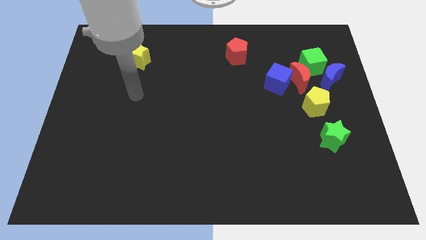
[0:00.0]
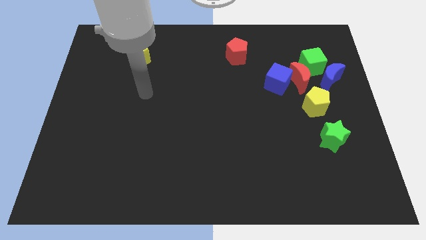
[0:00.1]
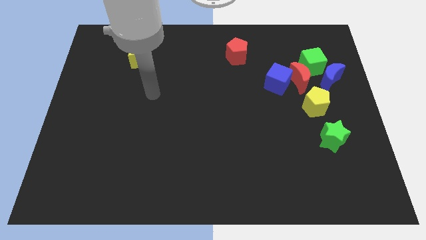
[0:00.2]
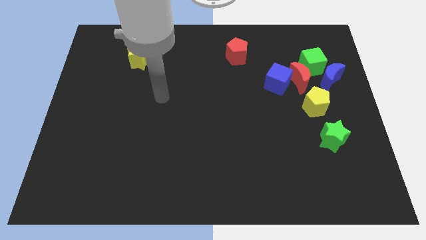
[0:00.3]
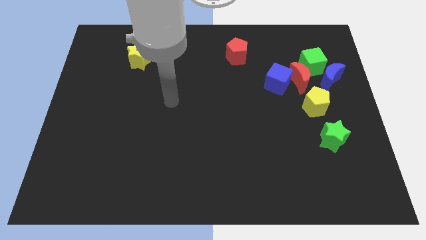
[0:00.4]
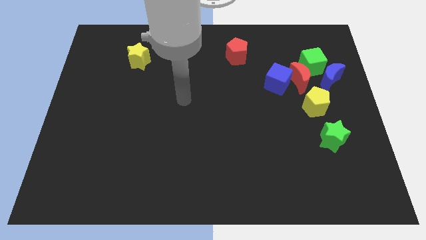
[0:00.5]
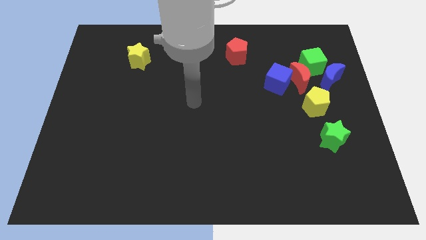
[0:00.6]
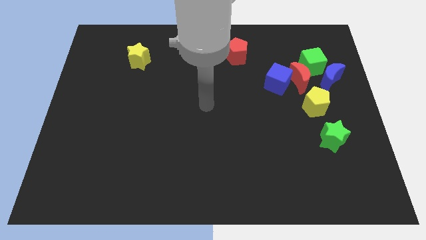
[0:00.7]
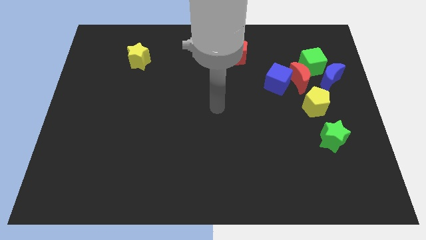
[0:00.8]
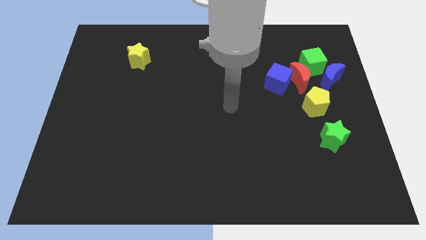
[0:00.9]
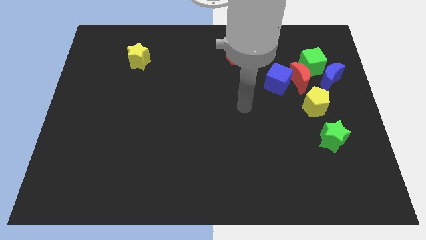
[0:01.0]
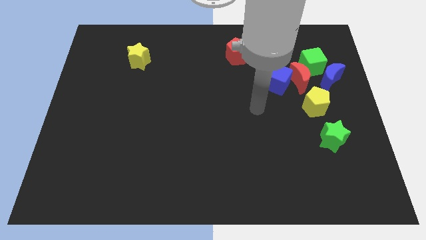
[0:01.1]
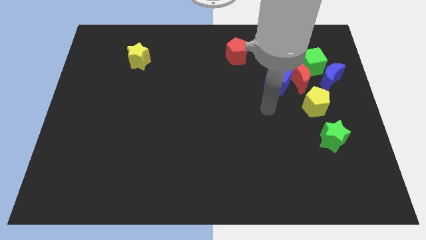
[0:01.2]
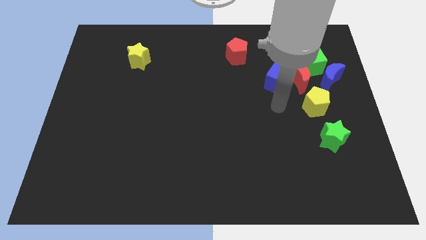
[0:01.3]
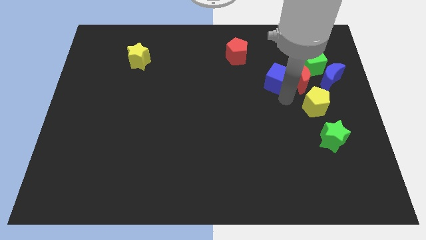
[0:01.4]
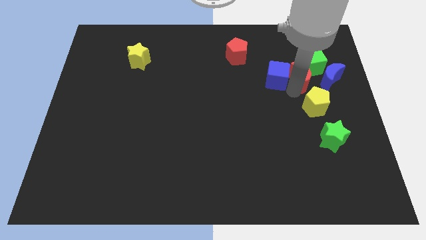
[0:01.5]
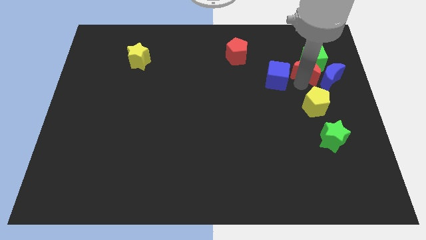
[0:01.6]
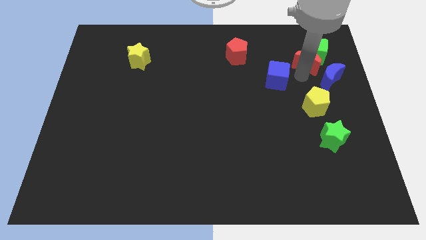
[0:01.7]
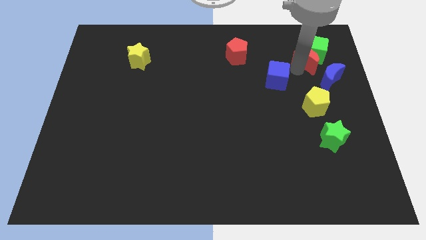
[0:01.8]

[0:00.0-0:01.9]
move the blue cube away from the red moon

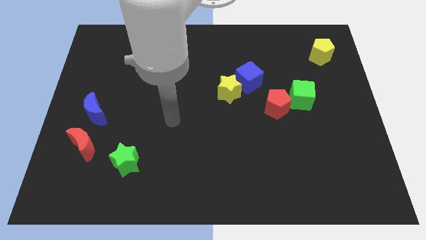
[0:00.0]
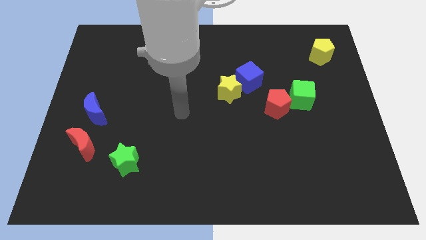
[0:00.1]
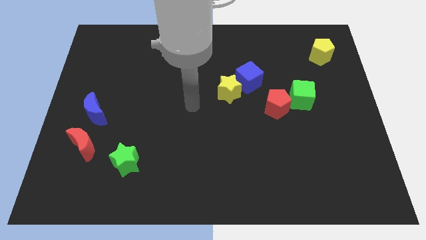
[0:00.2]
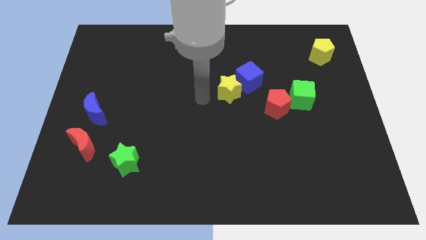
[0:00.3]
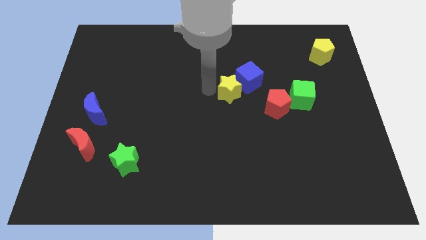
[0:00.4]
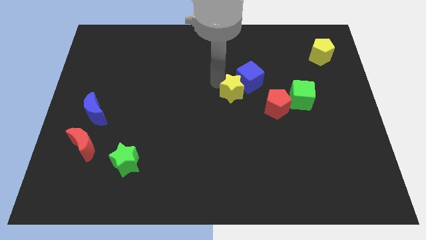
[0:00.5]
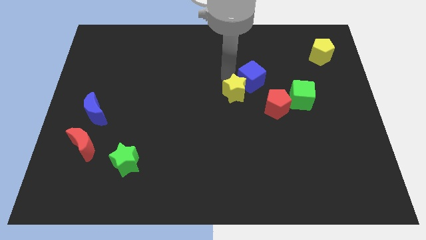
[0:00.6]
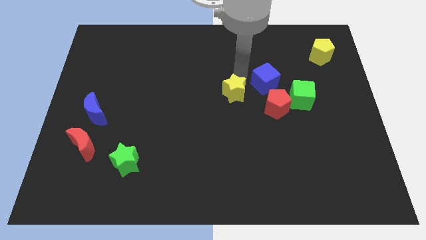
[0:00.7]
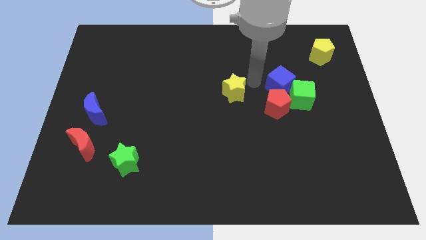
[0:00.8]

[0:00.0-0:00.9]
separate the yellow star from the blue cube

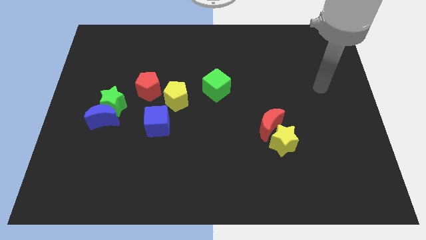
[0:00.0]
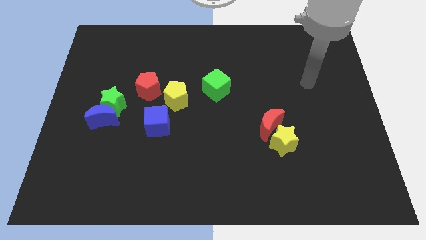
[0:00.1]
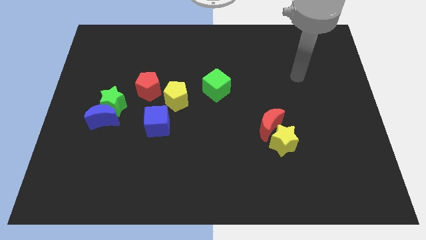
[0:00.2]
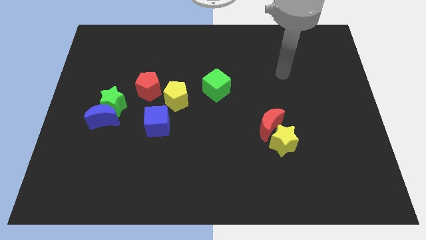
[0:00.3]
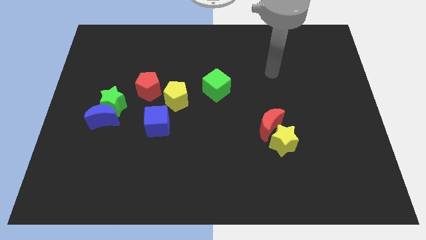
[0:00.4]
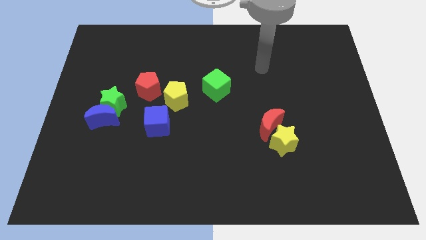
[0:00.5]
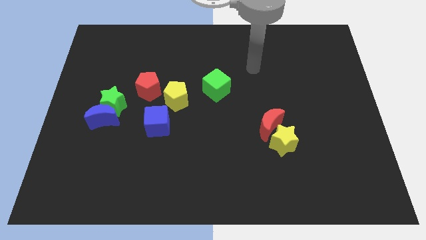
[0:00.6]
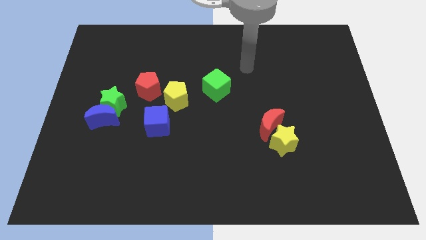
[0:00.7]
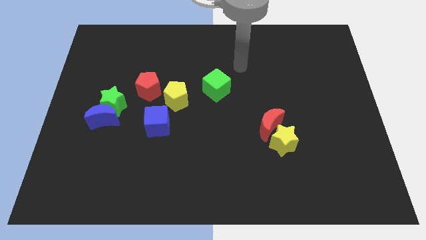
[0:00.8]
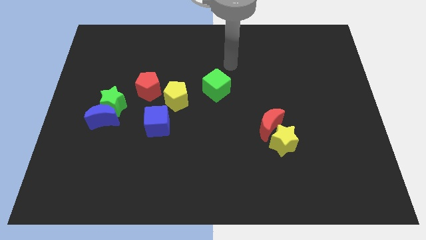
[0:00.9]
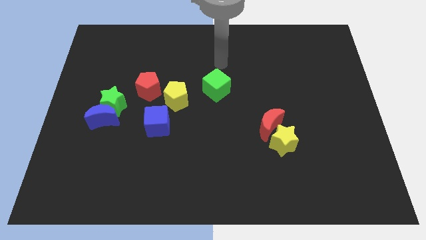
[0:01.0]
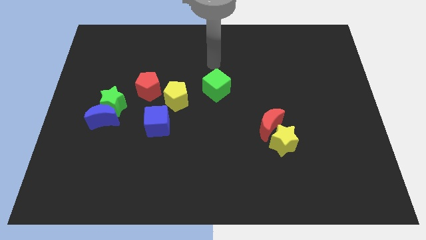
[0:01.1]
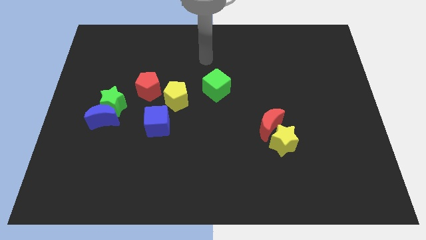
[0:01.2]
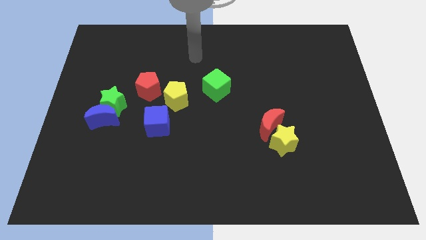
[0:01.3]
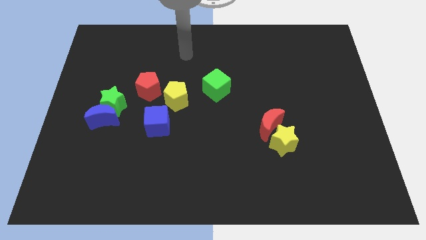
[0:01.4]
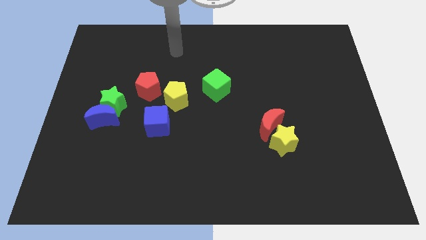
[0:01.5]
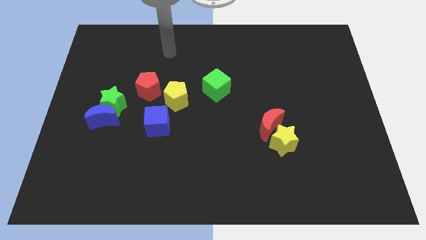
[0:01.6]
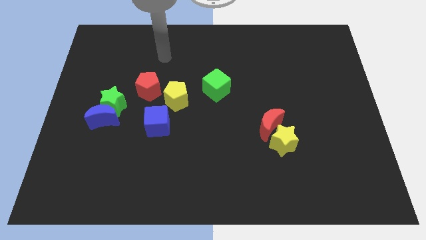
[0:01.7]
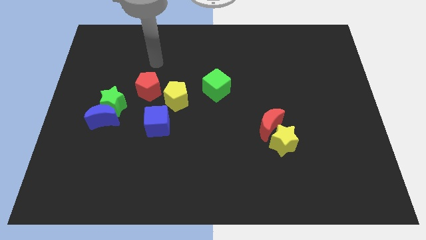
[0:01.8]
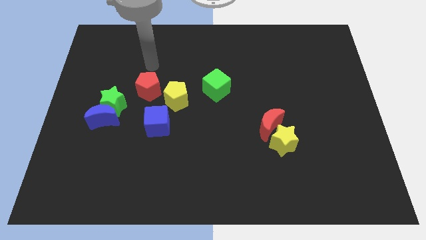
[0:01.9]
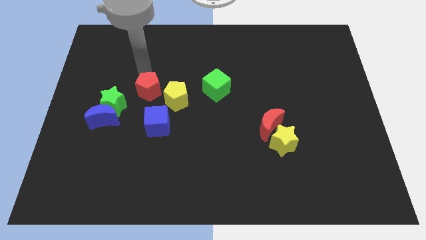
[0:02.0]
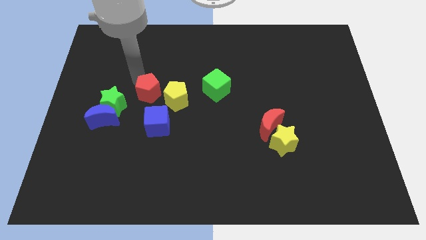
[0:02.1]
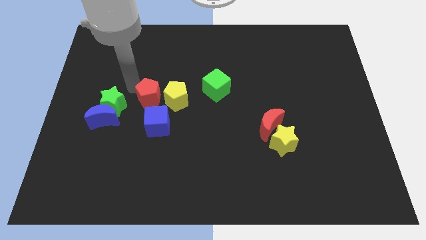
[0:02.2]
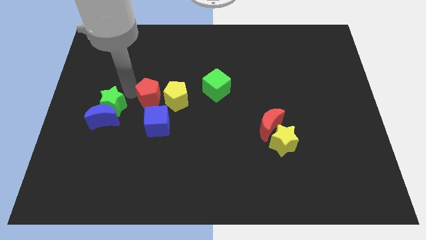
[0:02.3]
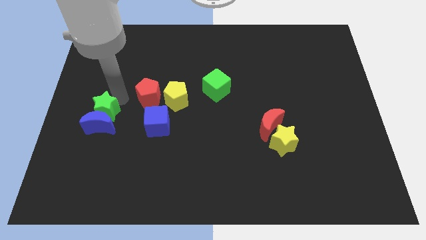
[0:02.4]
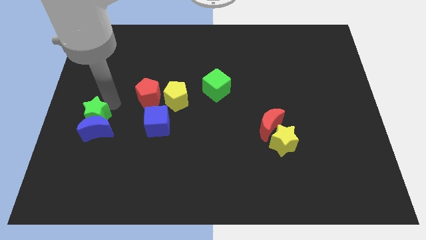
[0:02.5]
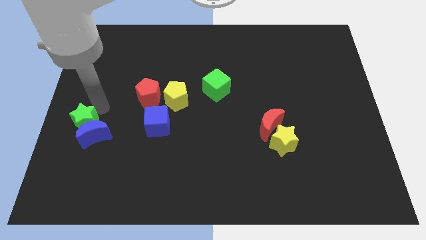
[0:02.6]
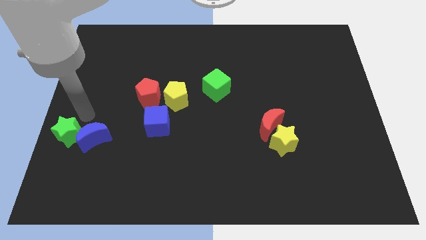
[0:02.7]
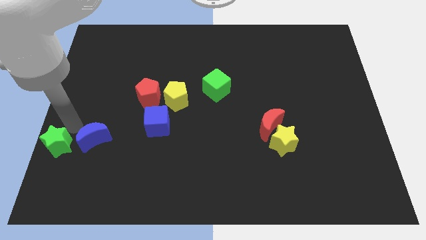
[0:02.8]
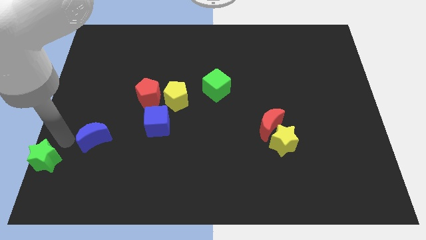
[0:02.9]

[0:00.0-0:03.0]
separate the blue moon from the green star

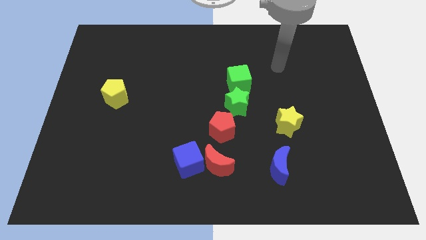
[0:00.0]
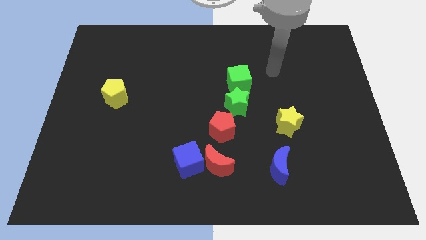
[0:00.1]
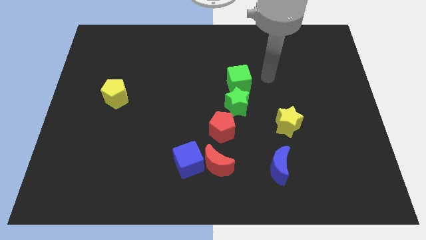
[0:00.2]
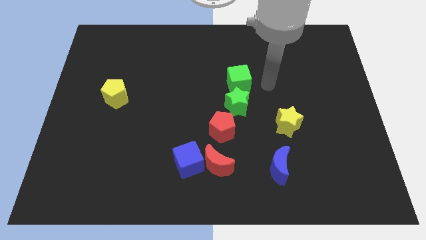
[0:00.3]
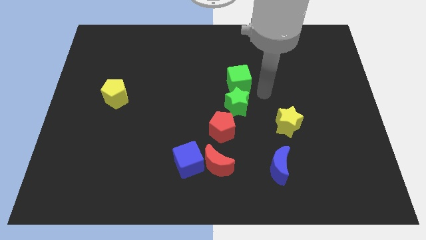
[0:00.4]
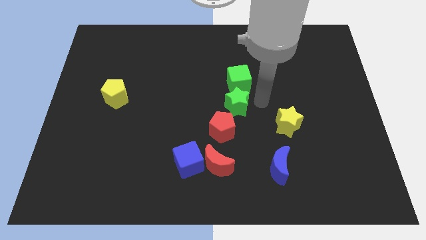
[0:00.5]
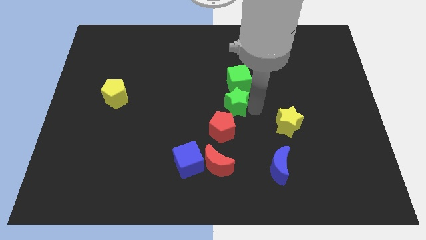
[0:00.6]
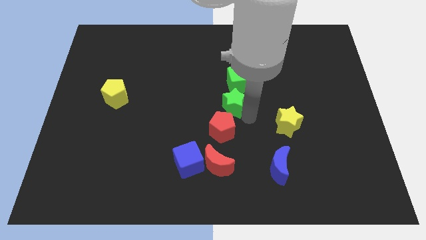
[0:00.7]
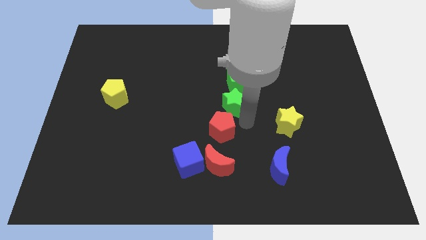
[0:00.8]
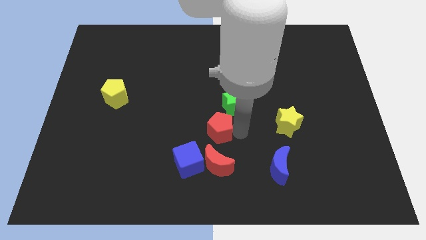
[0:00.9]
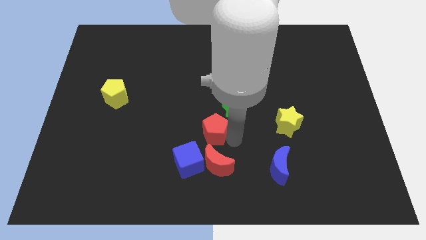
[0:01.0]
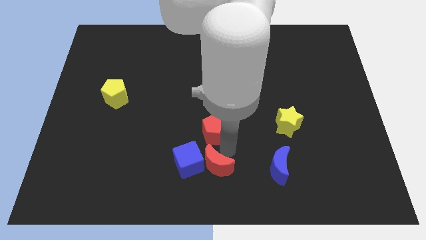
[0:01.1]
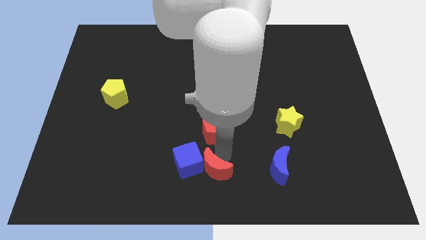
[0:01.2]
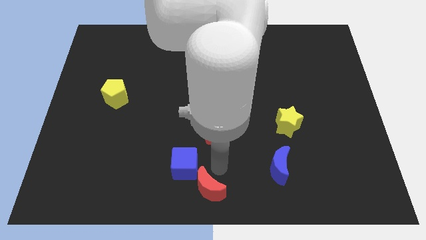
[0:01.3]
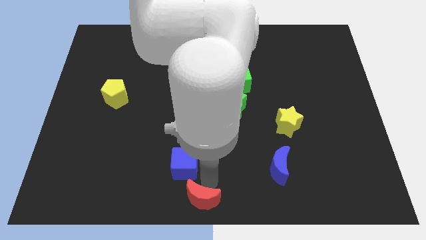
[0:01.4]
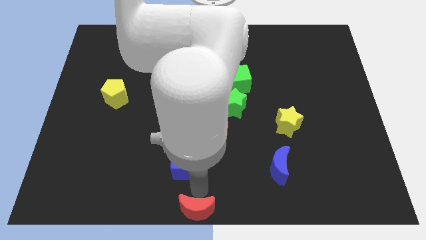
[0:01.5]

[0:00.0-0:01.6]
separate the blue cube from the red moon

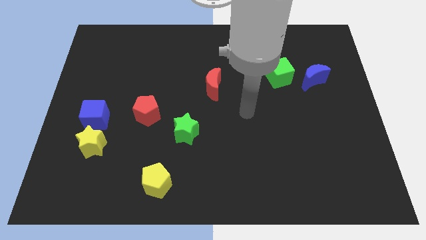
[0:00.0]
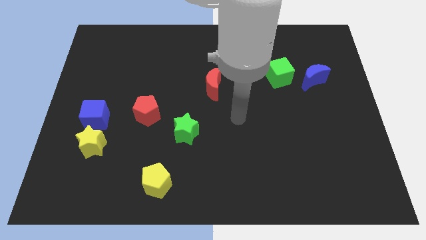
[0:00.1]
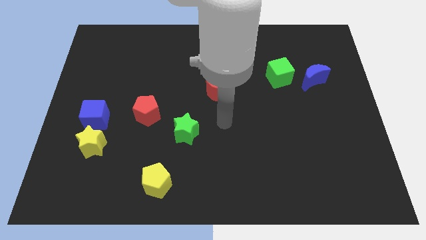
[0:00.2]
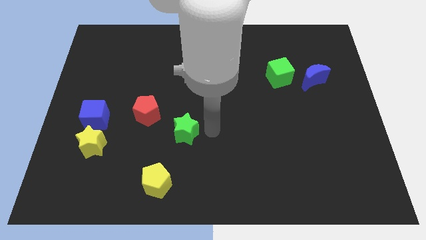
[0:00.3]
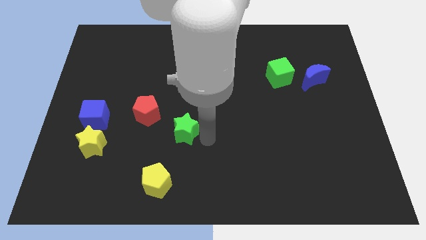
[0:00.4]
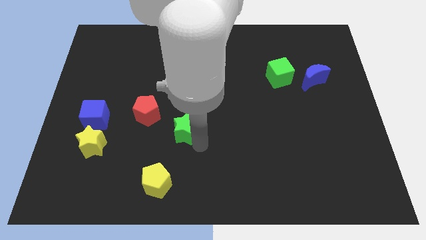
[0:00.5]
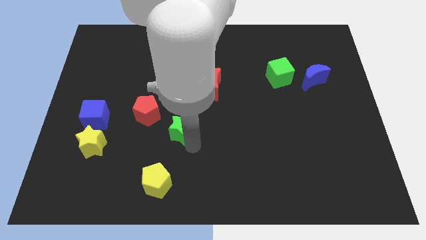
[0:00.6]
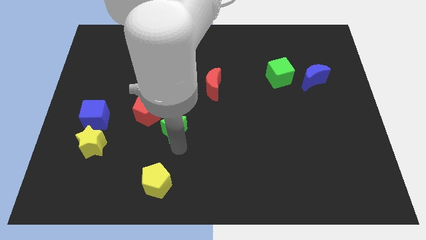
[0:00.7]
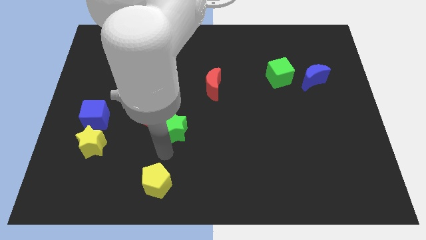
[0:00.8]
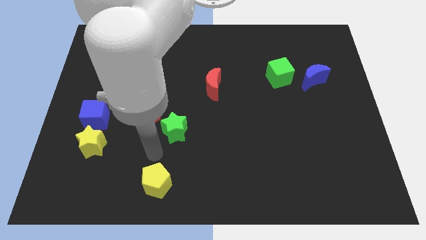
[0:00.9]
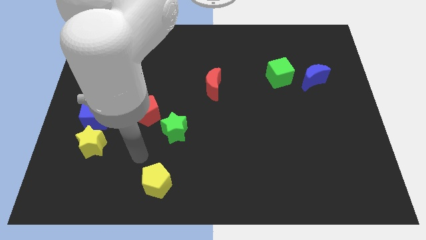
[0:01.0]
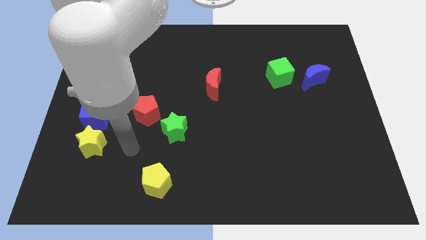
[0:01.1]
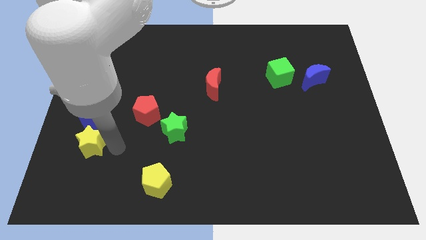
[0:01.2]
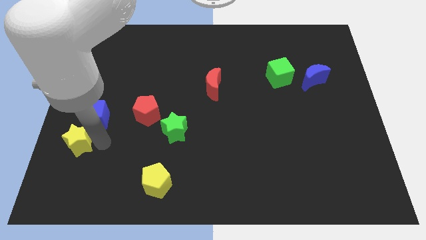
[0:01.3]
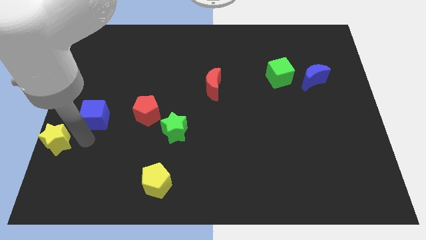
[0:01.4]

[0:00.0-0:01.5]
move the blue cube away from the yellow star

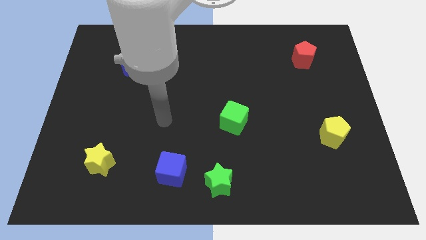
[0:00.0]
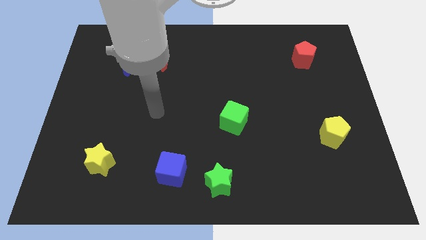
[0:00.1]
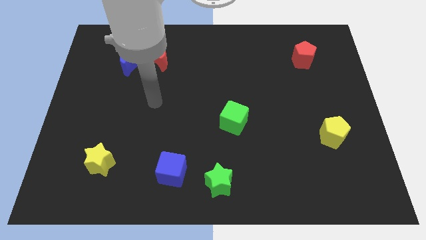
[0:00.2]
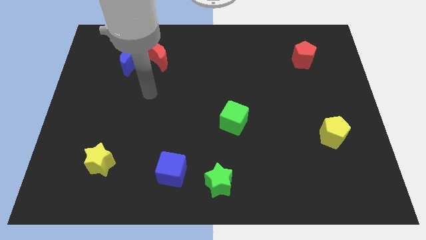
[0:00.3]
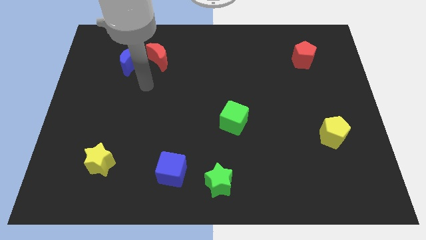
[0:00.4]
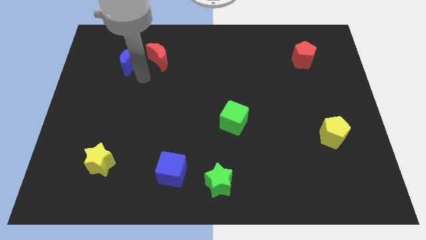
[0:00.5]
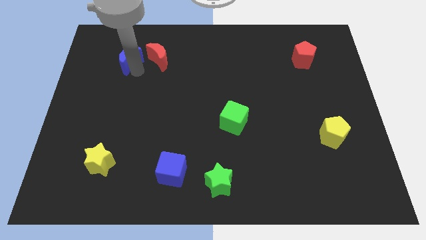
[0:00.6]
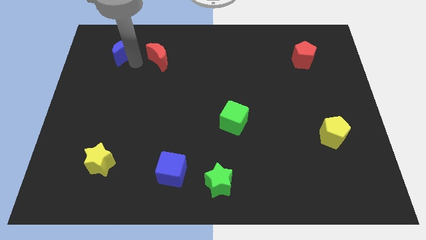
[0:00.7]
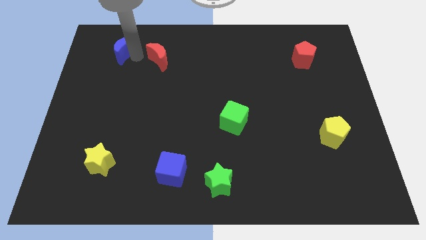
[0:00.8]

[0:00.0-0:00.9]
pull the red moon apart from the blue moon
